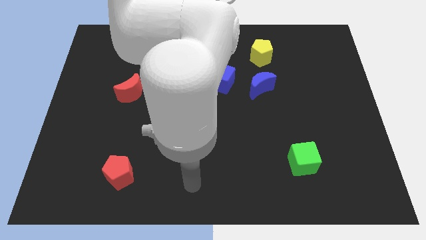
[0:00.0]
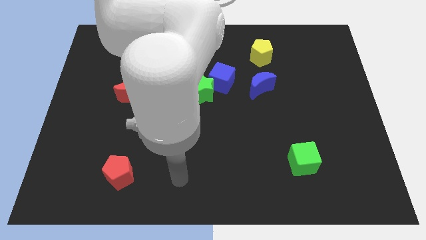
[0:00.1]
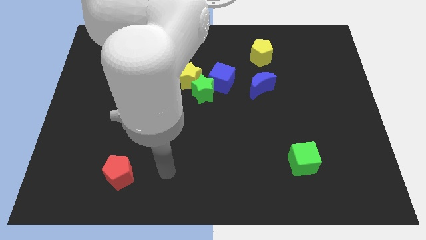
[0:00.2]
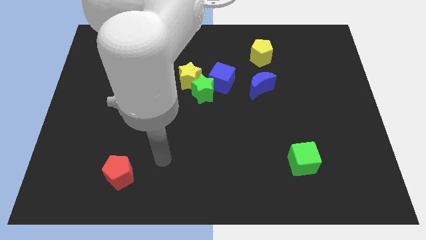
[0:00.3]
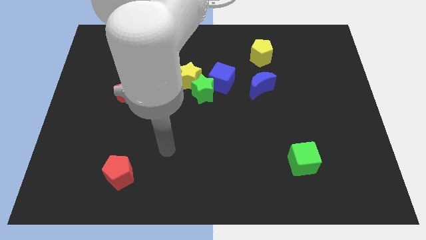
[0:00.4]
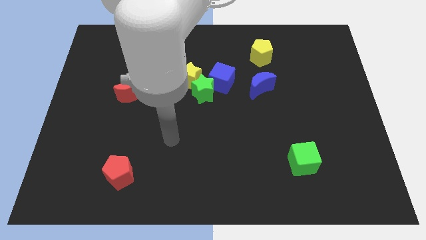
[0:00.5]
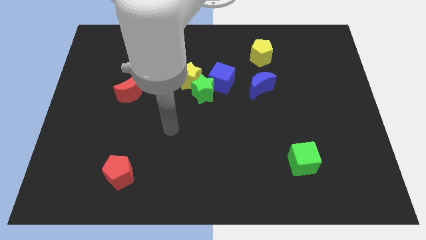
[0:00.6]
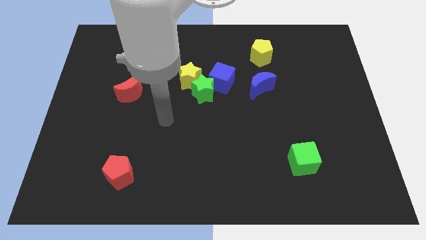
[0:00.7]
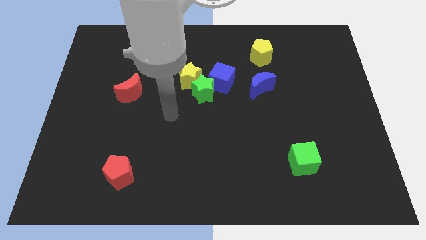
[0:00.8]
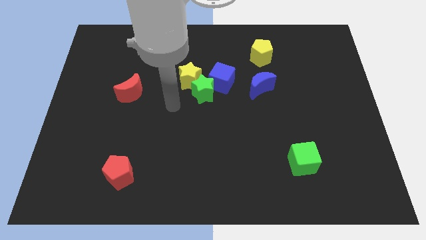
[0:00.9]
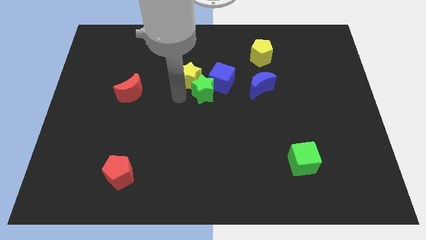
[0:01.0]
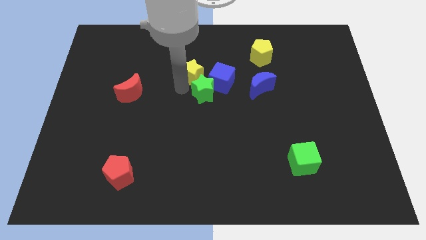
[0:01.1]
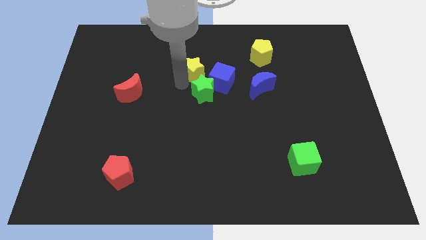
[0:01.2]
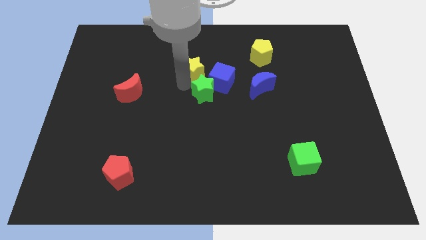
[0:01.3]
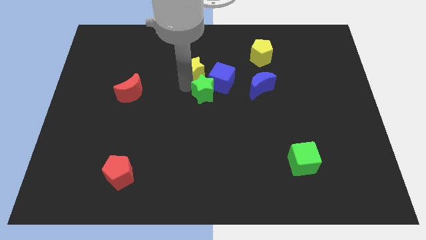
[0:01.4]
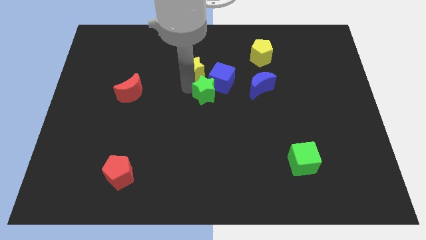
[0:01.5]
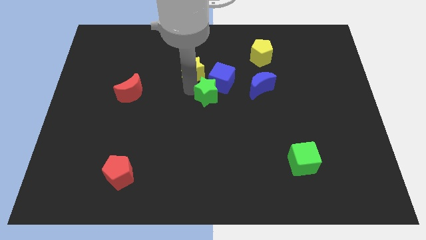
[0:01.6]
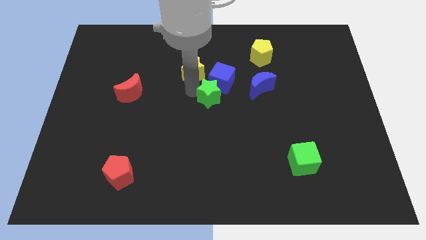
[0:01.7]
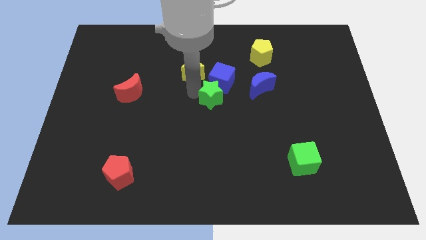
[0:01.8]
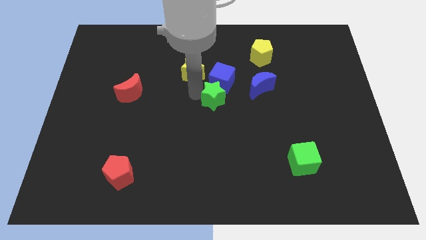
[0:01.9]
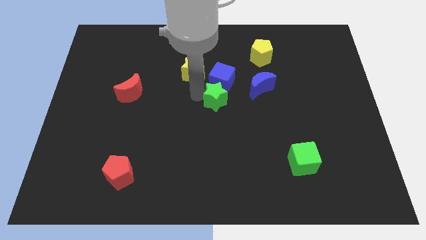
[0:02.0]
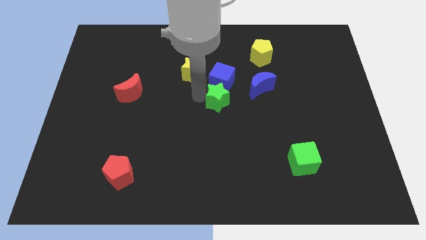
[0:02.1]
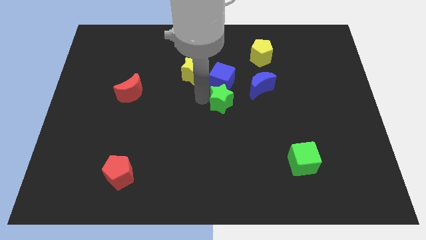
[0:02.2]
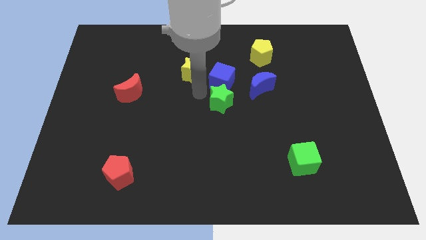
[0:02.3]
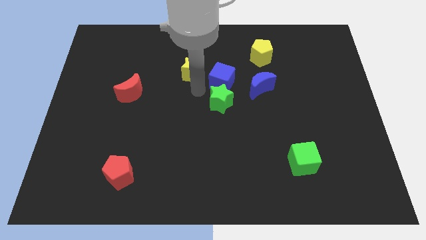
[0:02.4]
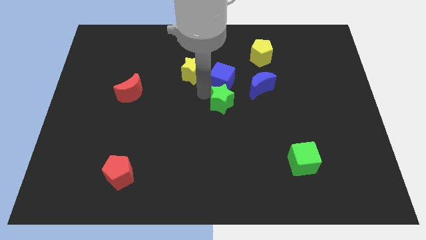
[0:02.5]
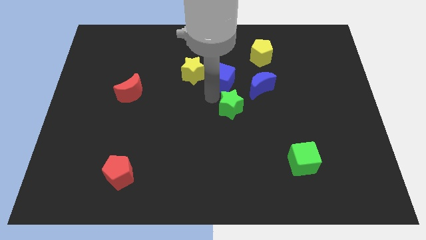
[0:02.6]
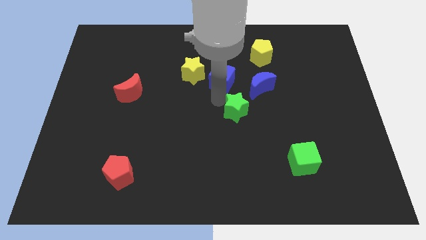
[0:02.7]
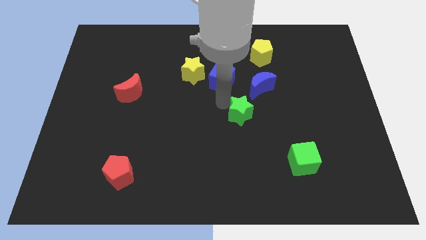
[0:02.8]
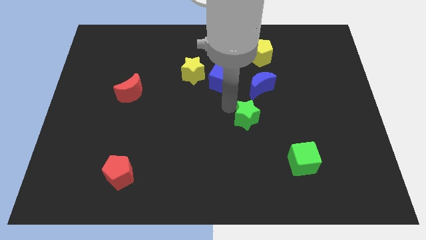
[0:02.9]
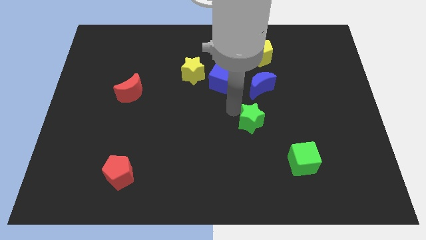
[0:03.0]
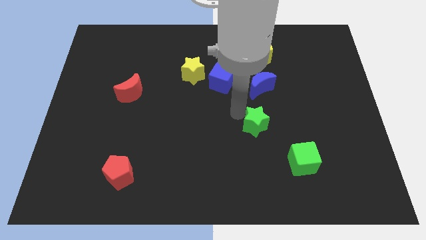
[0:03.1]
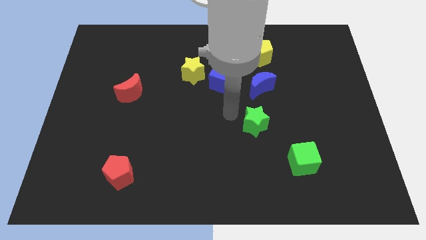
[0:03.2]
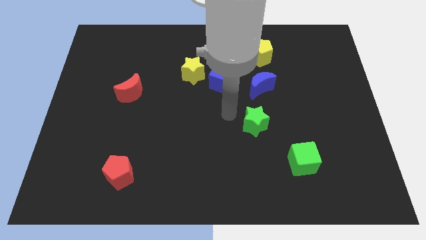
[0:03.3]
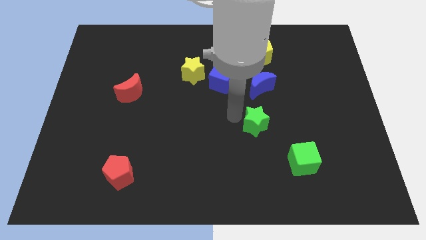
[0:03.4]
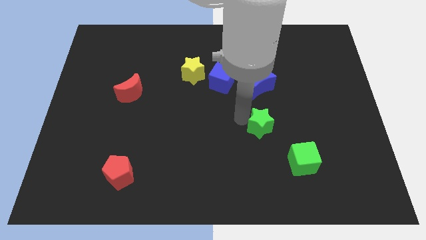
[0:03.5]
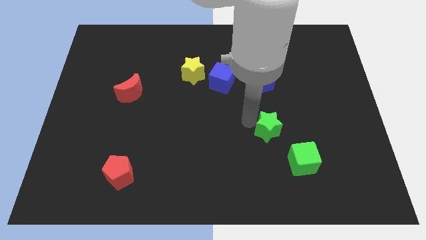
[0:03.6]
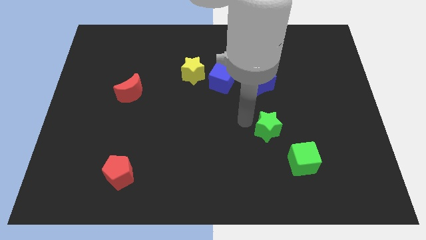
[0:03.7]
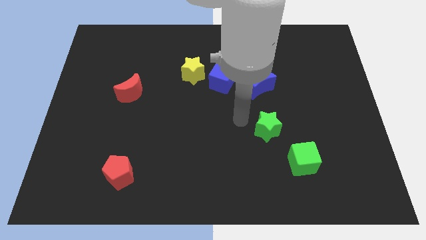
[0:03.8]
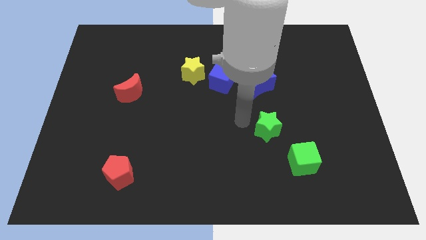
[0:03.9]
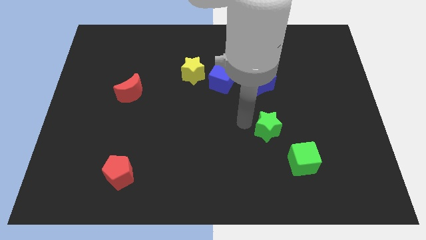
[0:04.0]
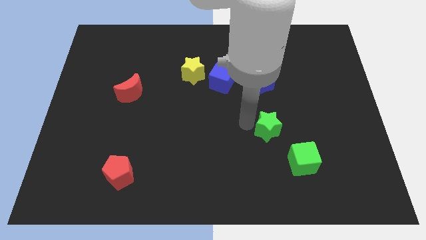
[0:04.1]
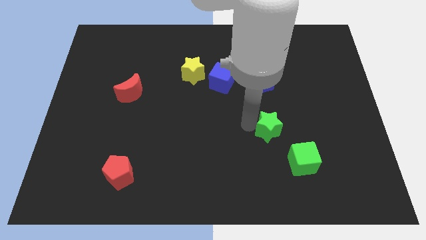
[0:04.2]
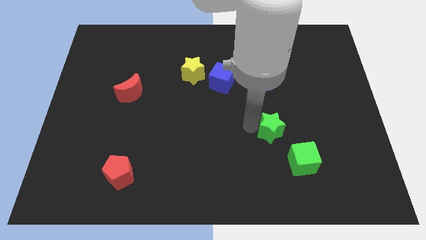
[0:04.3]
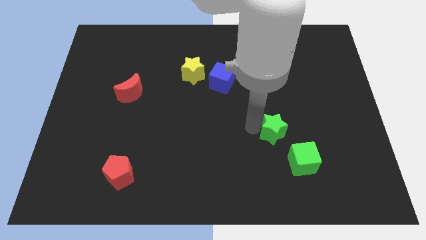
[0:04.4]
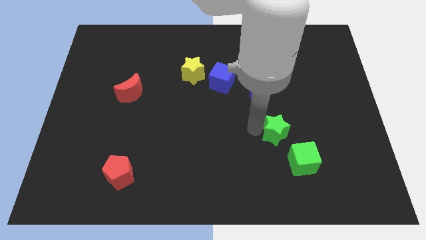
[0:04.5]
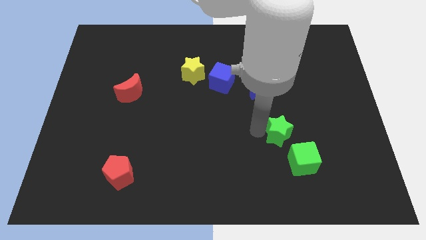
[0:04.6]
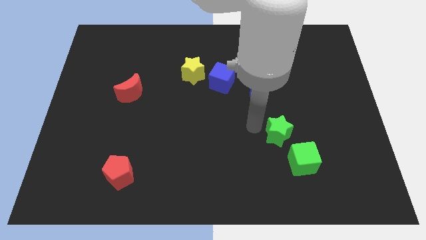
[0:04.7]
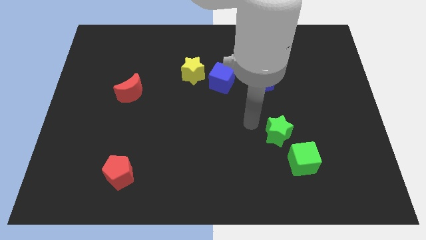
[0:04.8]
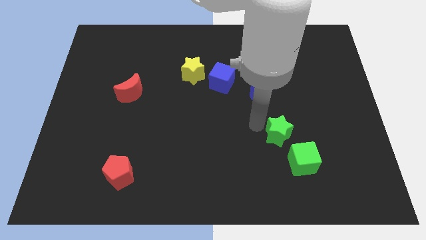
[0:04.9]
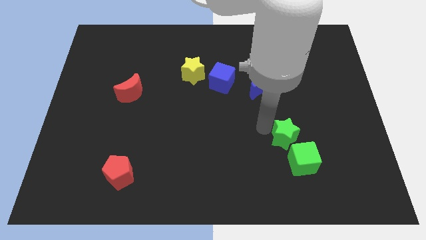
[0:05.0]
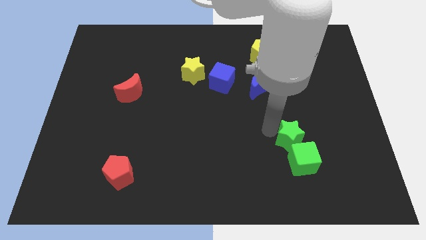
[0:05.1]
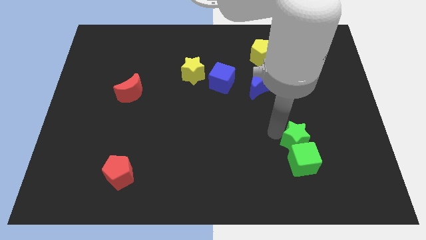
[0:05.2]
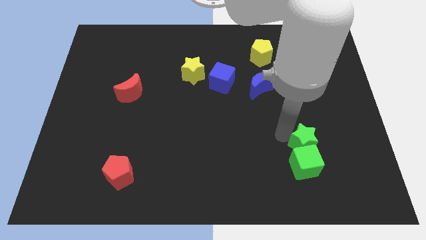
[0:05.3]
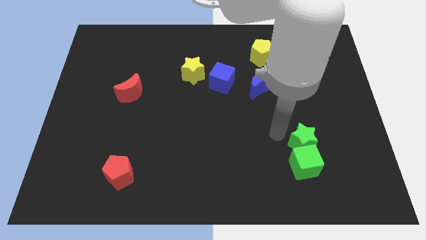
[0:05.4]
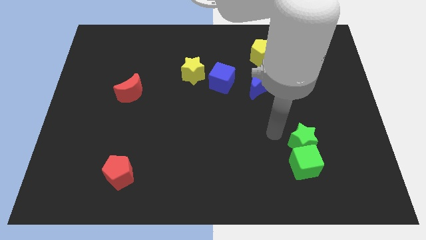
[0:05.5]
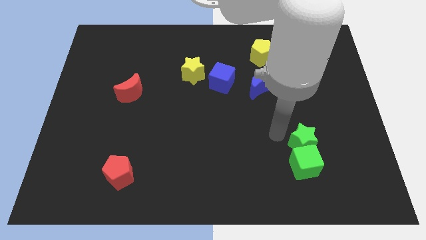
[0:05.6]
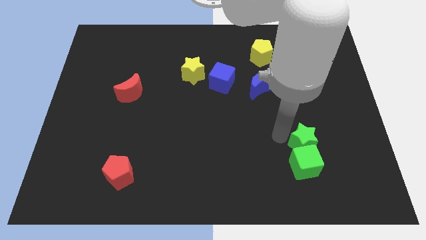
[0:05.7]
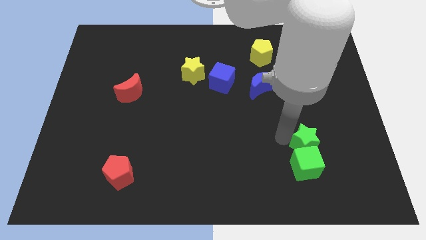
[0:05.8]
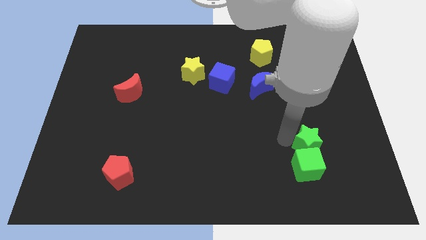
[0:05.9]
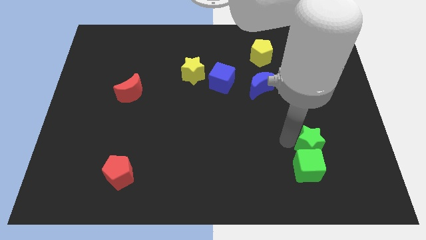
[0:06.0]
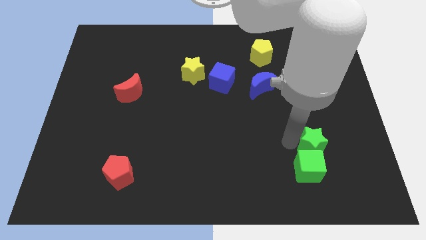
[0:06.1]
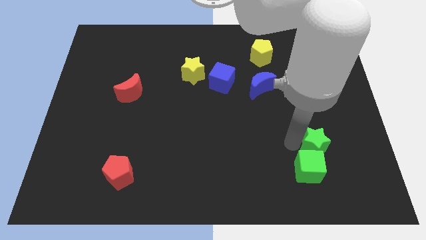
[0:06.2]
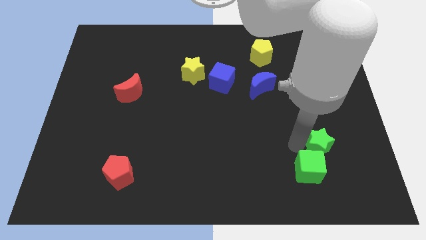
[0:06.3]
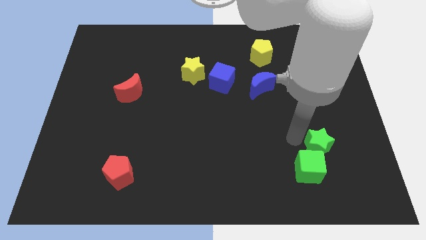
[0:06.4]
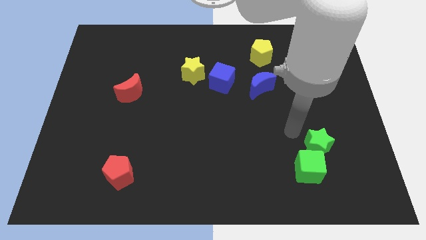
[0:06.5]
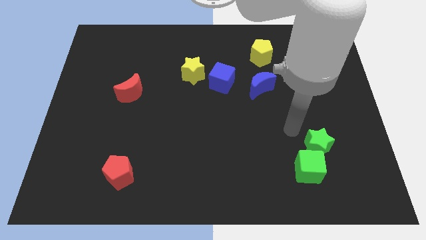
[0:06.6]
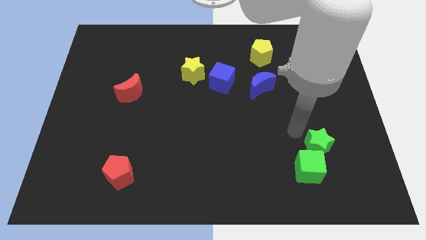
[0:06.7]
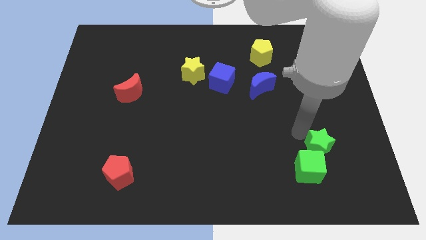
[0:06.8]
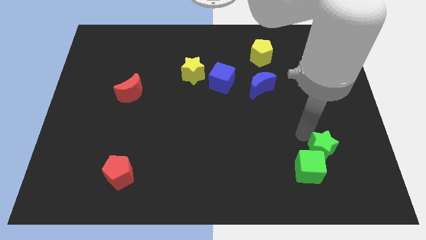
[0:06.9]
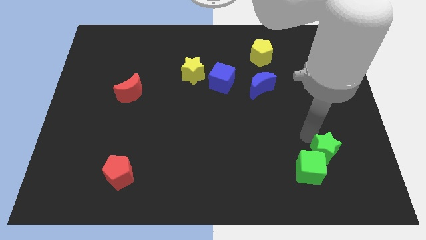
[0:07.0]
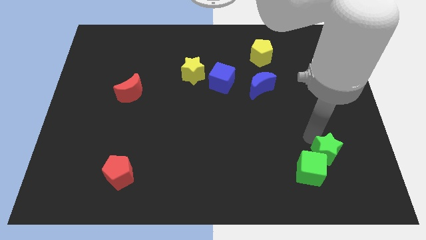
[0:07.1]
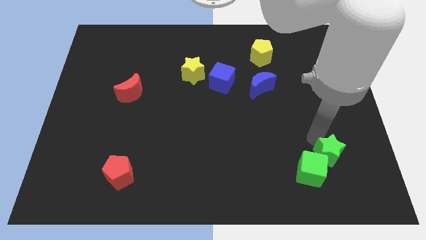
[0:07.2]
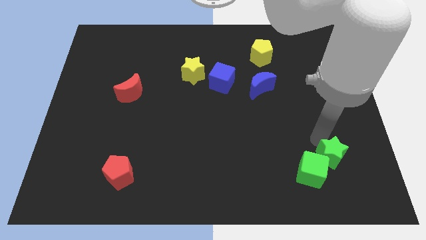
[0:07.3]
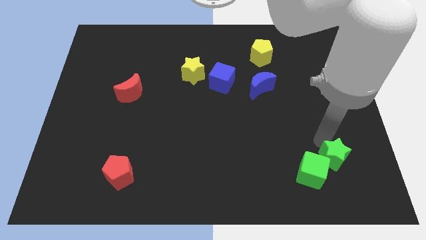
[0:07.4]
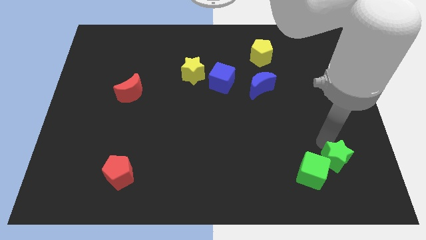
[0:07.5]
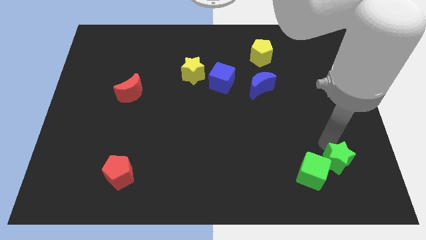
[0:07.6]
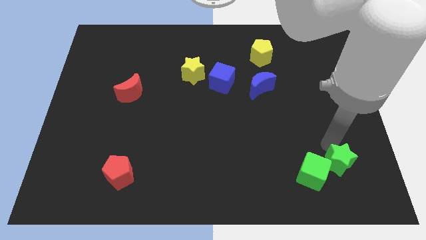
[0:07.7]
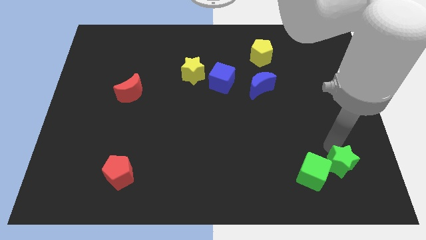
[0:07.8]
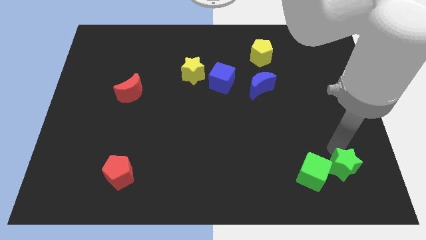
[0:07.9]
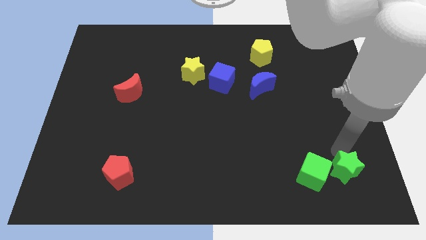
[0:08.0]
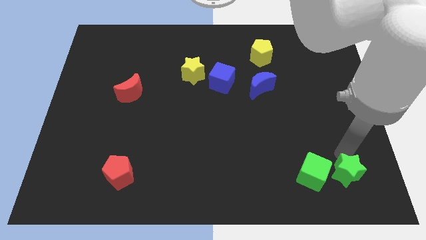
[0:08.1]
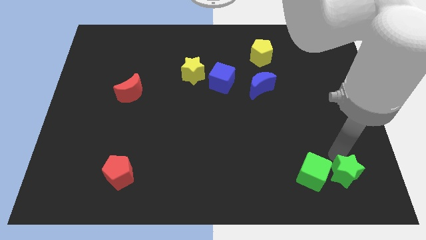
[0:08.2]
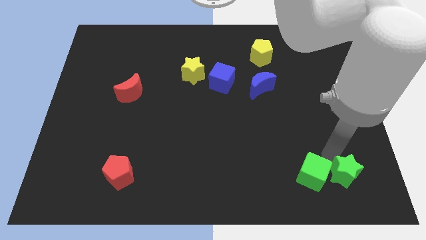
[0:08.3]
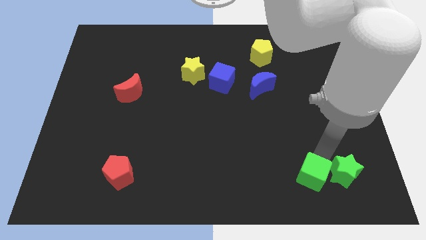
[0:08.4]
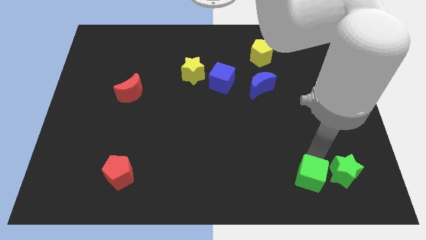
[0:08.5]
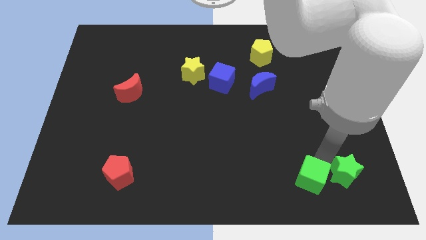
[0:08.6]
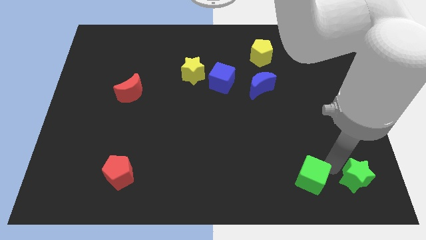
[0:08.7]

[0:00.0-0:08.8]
put the green star to the bottom right corner
